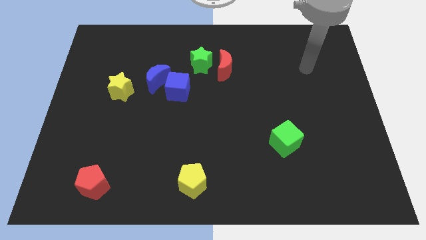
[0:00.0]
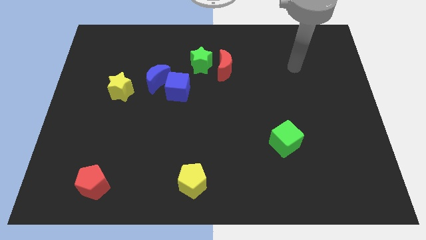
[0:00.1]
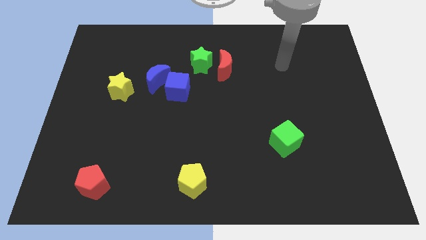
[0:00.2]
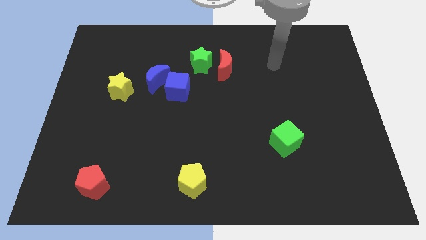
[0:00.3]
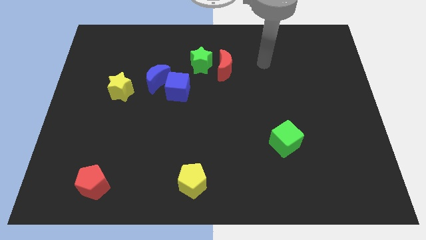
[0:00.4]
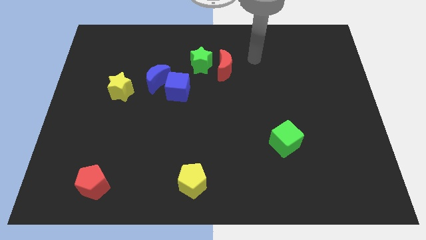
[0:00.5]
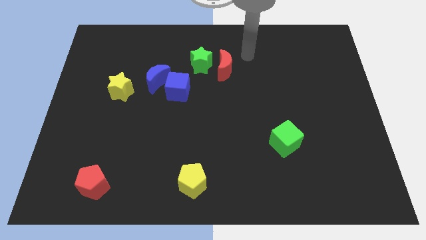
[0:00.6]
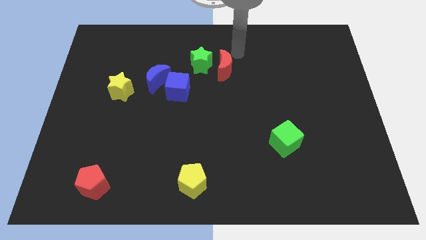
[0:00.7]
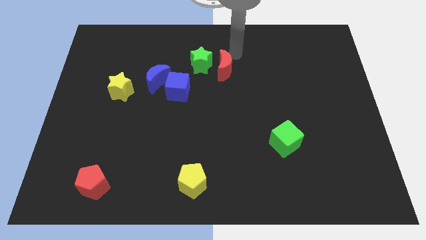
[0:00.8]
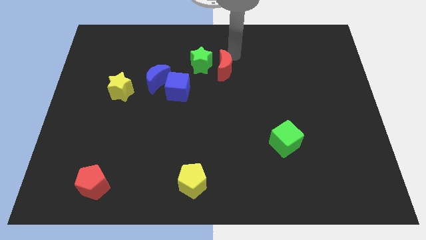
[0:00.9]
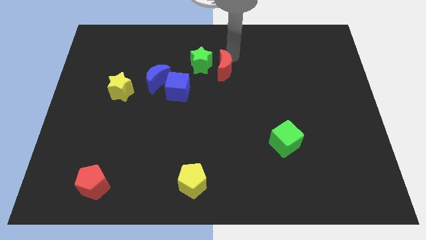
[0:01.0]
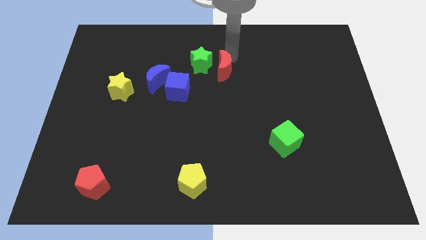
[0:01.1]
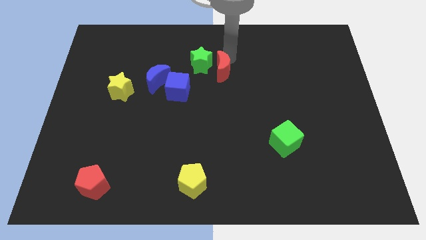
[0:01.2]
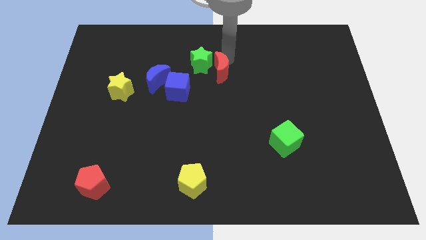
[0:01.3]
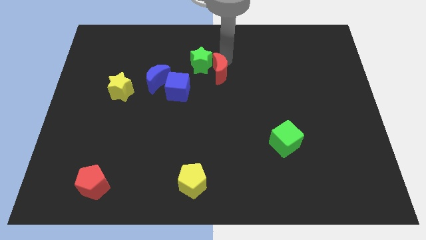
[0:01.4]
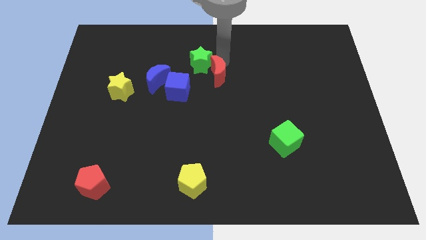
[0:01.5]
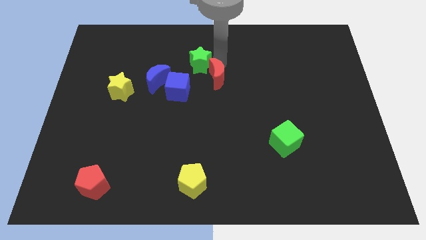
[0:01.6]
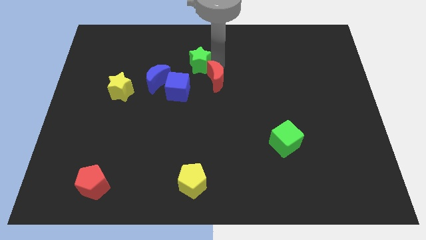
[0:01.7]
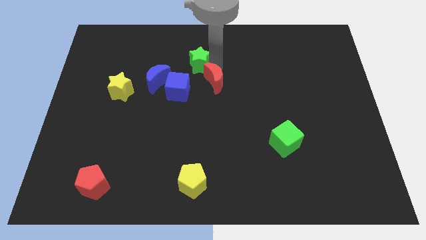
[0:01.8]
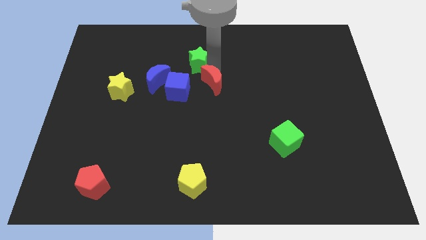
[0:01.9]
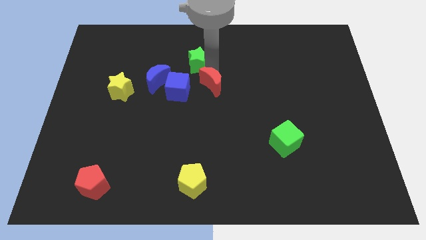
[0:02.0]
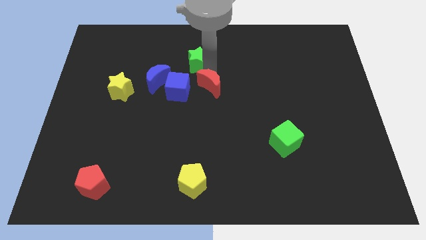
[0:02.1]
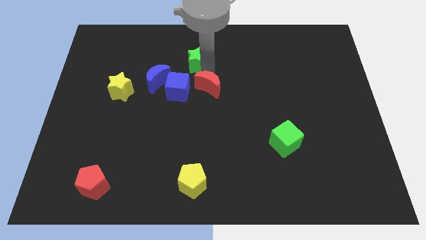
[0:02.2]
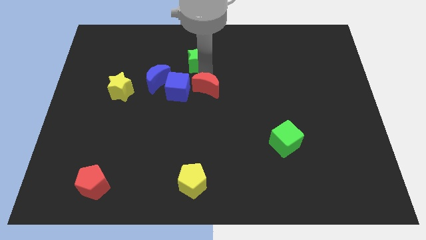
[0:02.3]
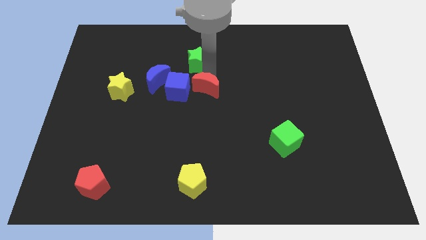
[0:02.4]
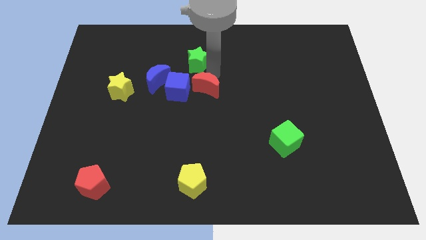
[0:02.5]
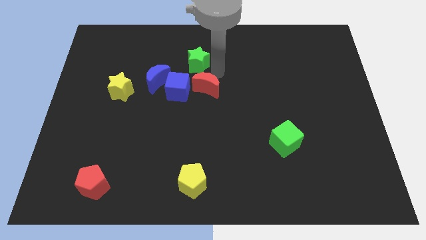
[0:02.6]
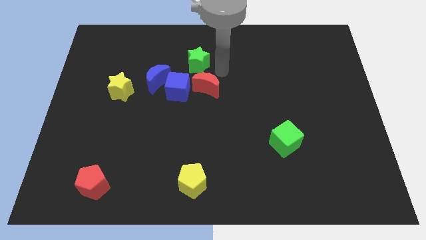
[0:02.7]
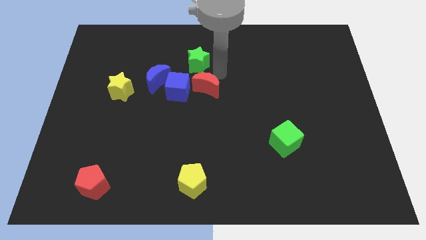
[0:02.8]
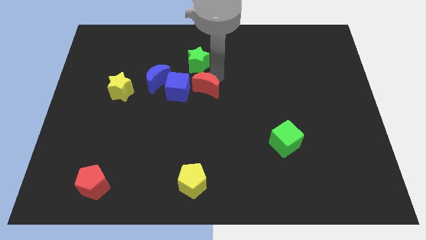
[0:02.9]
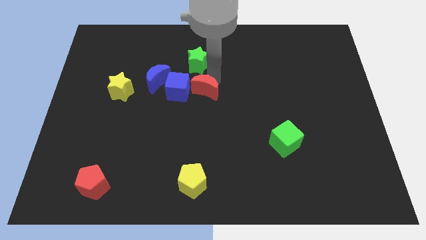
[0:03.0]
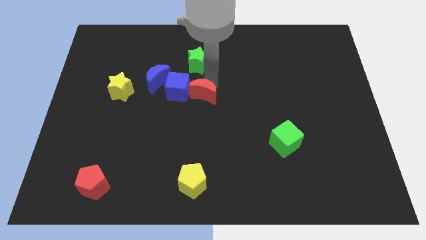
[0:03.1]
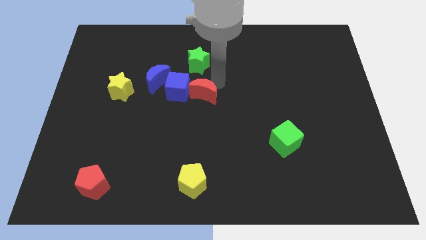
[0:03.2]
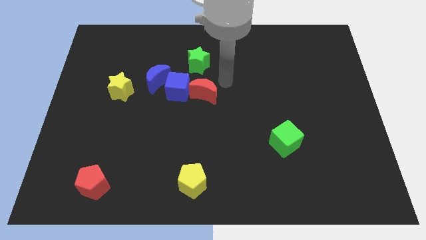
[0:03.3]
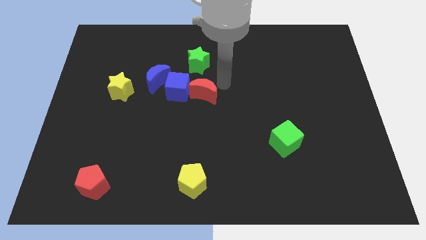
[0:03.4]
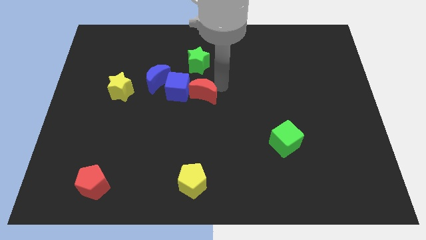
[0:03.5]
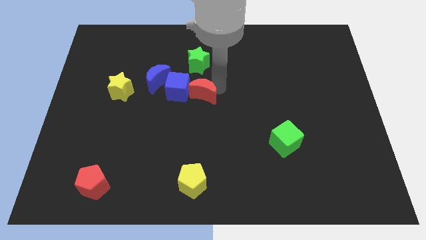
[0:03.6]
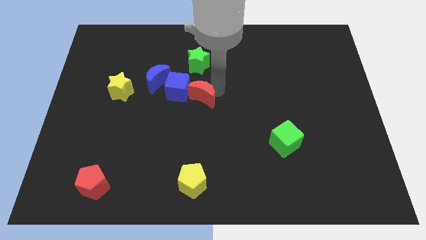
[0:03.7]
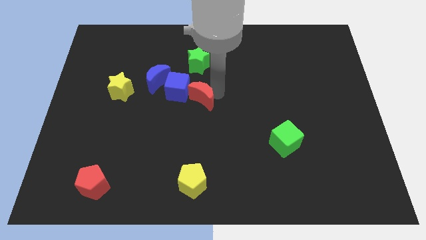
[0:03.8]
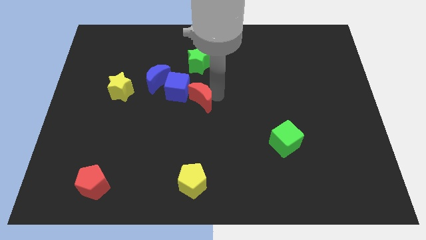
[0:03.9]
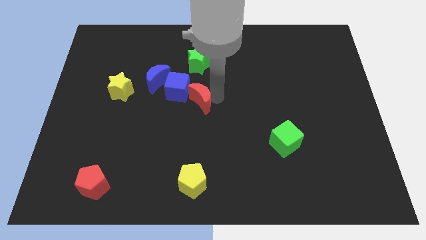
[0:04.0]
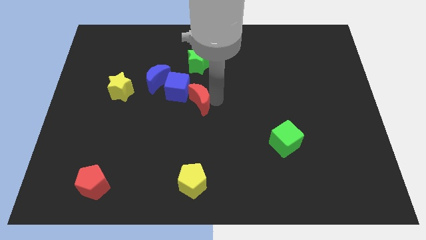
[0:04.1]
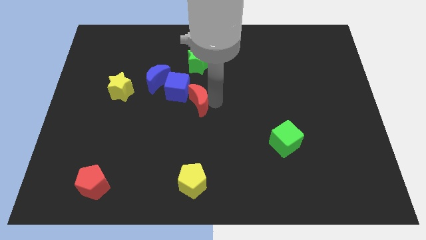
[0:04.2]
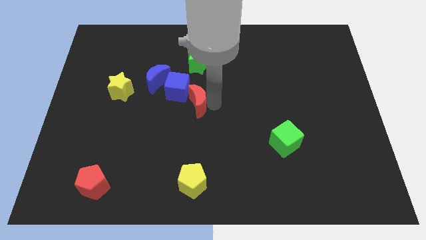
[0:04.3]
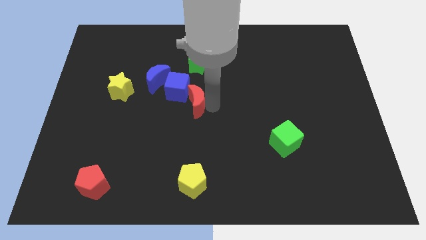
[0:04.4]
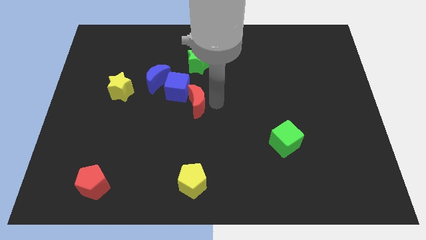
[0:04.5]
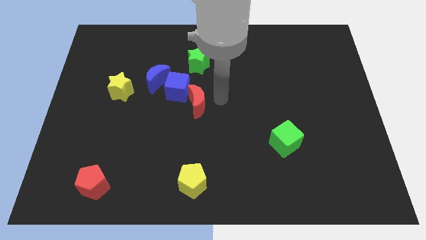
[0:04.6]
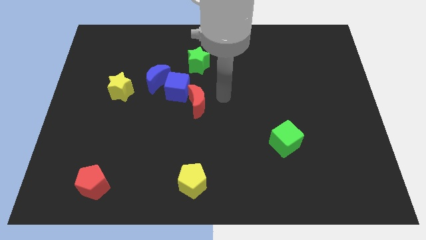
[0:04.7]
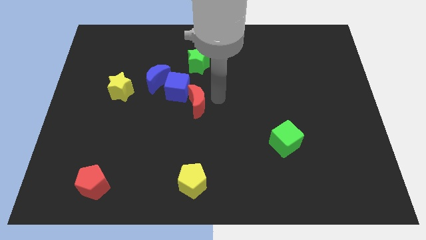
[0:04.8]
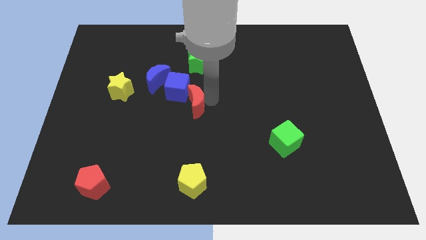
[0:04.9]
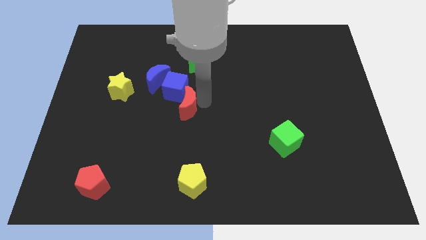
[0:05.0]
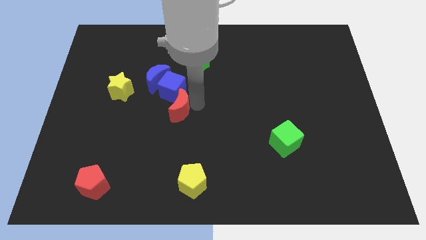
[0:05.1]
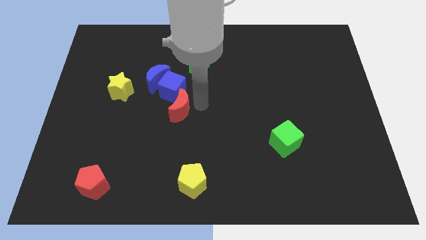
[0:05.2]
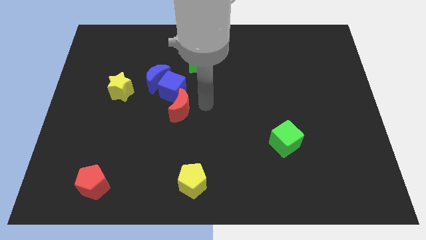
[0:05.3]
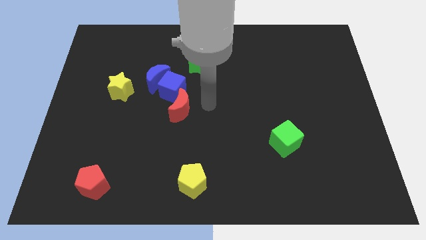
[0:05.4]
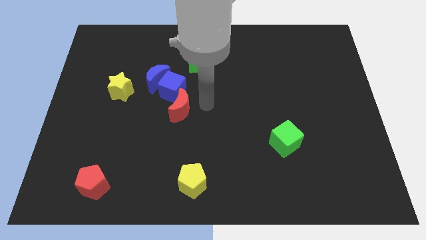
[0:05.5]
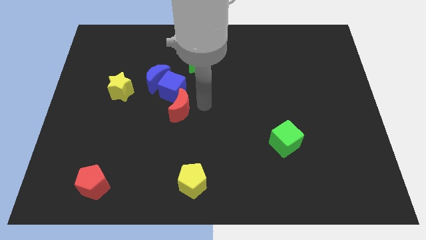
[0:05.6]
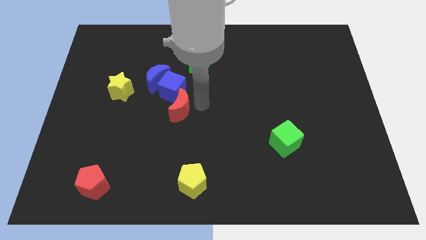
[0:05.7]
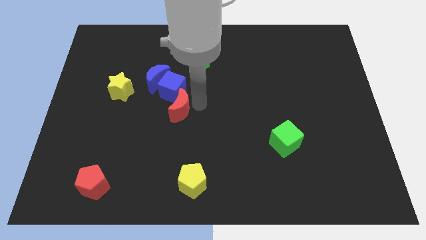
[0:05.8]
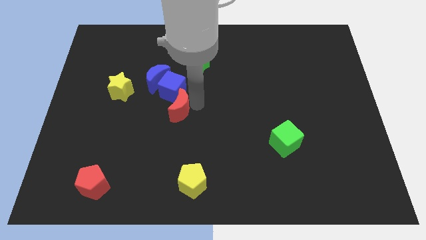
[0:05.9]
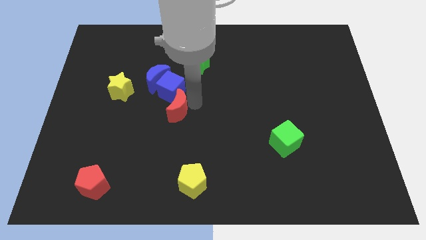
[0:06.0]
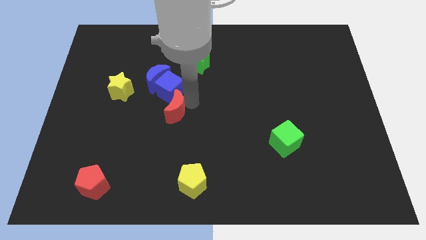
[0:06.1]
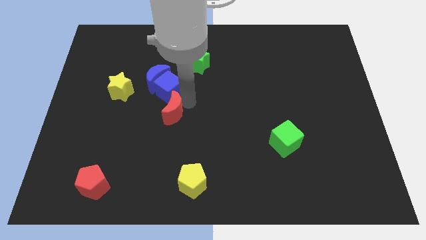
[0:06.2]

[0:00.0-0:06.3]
move the red moon below the blue moon
